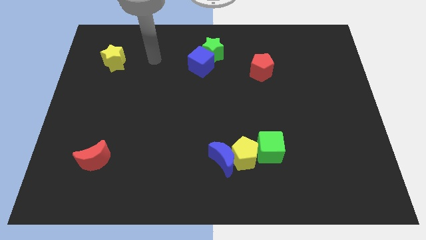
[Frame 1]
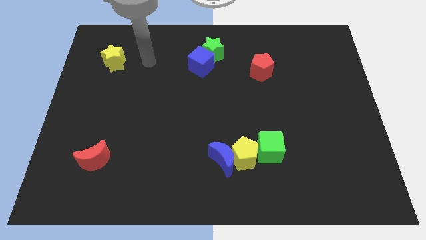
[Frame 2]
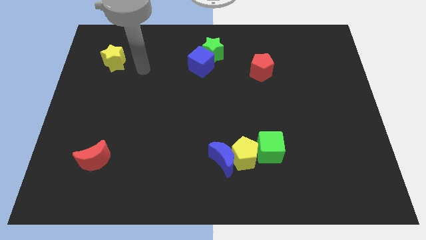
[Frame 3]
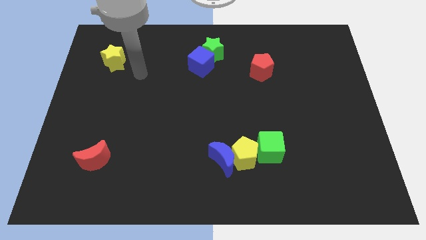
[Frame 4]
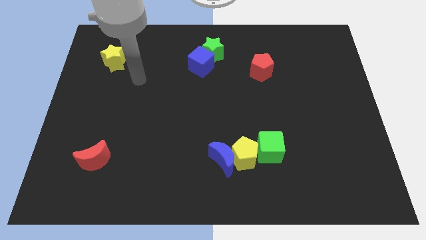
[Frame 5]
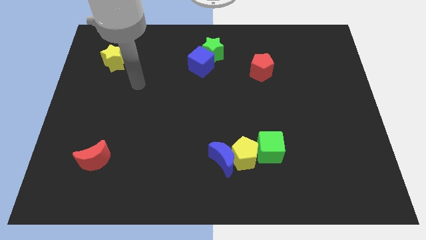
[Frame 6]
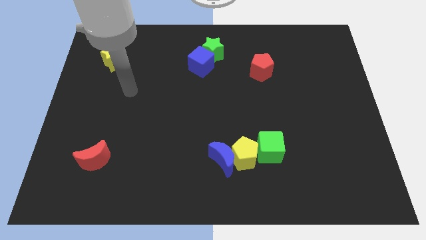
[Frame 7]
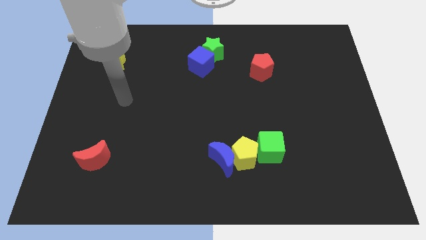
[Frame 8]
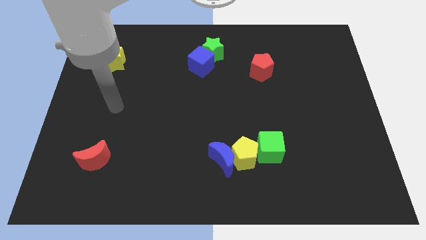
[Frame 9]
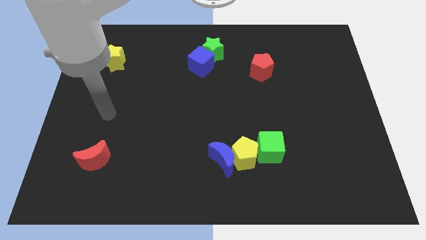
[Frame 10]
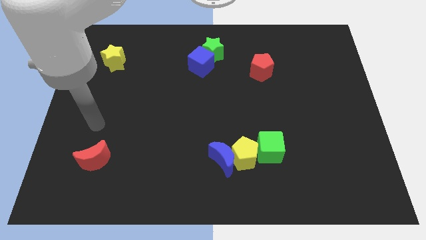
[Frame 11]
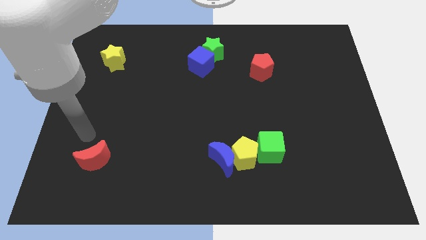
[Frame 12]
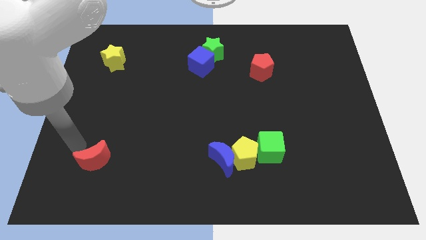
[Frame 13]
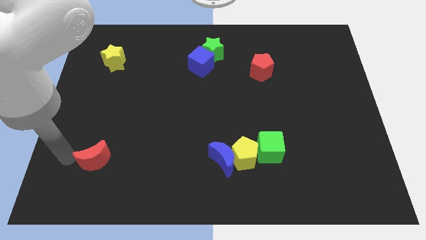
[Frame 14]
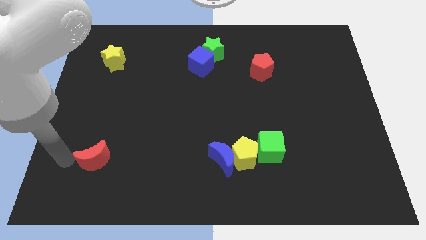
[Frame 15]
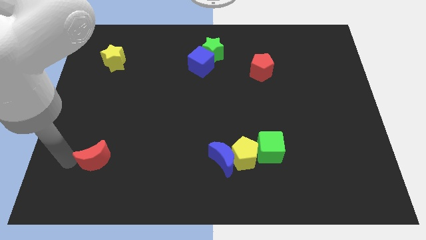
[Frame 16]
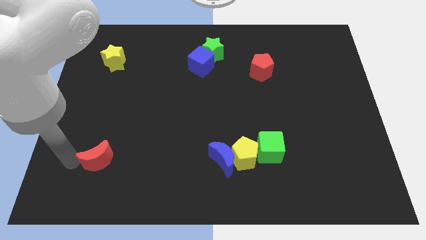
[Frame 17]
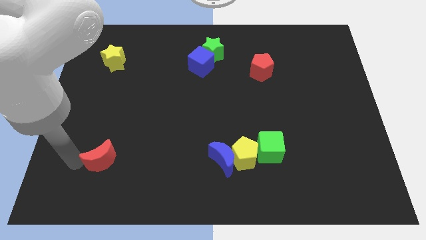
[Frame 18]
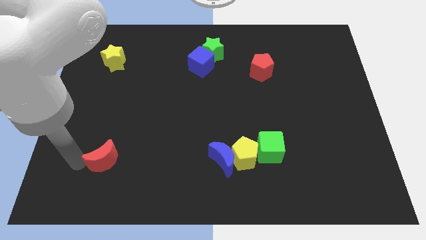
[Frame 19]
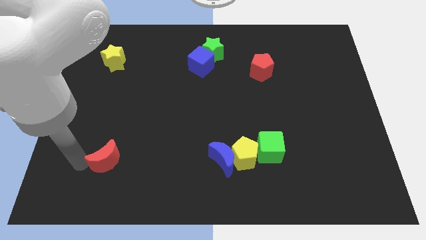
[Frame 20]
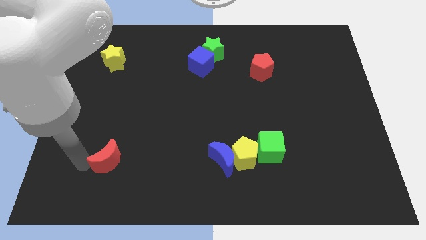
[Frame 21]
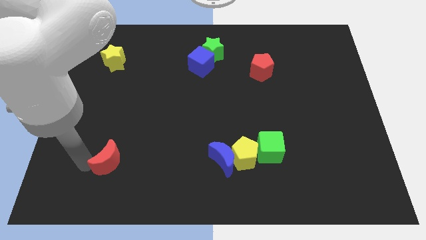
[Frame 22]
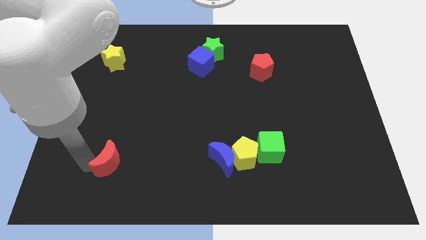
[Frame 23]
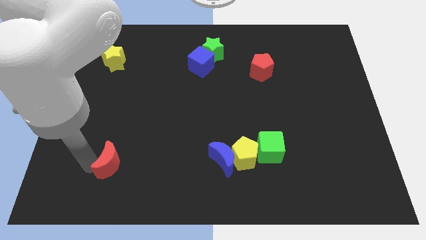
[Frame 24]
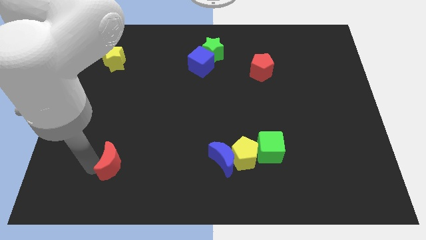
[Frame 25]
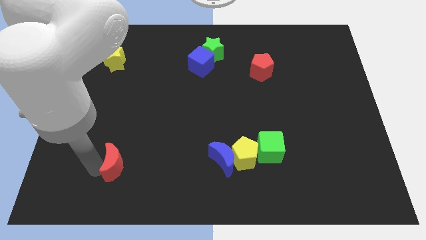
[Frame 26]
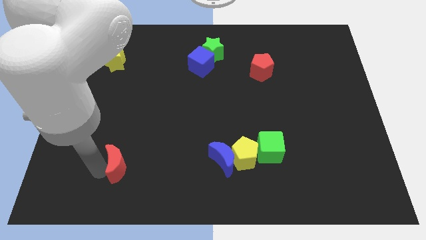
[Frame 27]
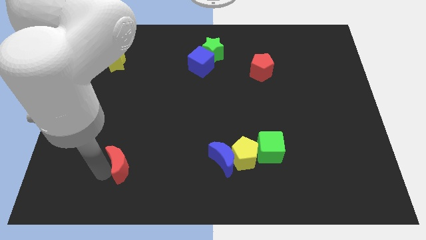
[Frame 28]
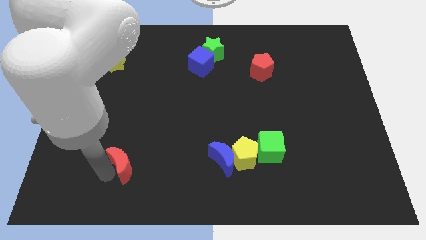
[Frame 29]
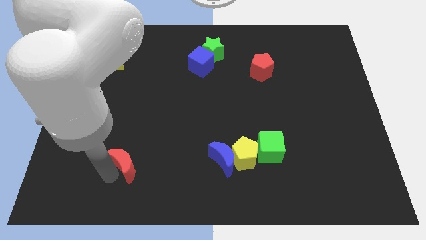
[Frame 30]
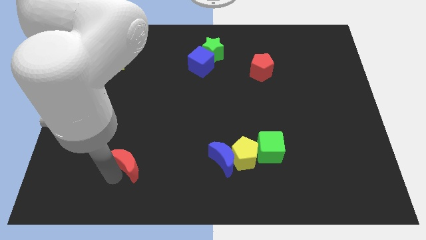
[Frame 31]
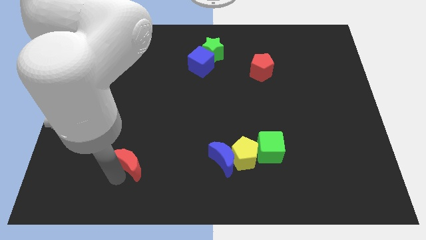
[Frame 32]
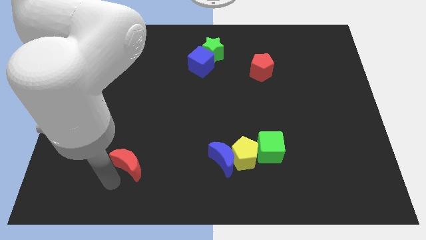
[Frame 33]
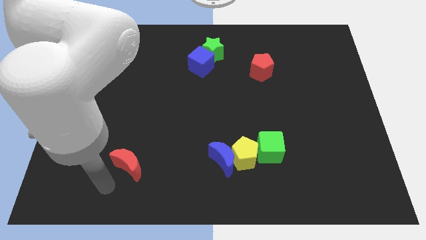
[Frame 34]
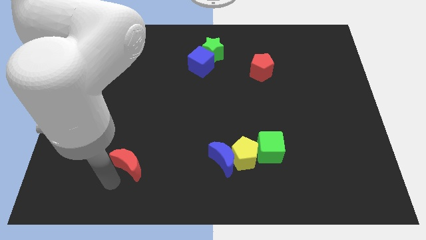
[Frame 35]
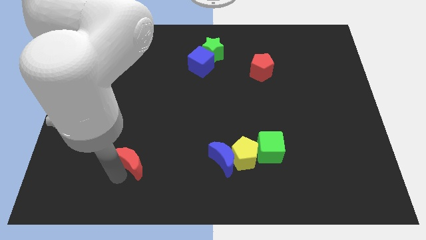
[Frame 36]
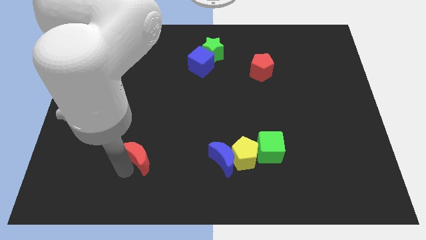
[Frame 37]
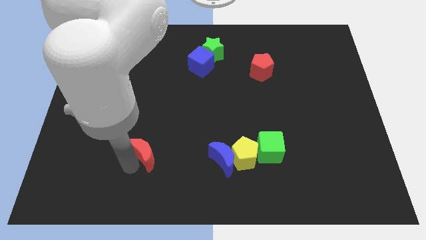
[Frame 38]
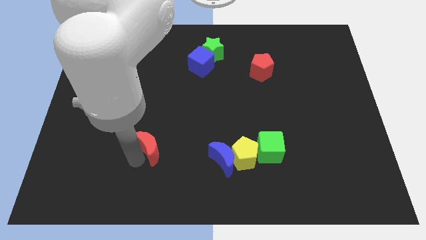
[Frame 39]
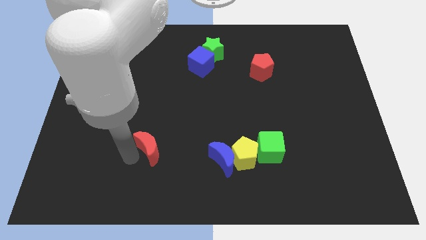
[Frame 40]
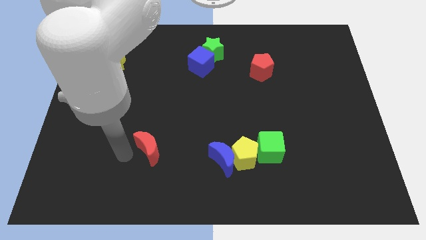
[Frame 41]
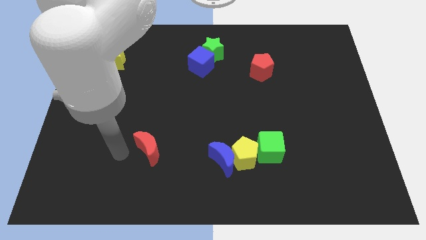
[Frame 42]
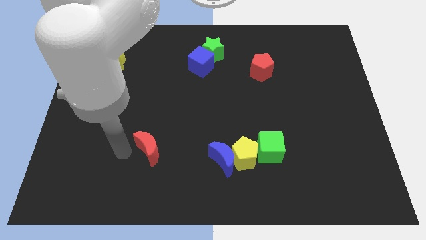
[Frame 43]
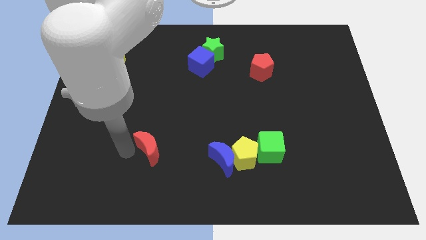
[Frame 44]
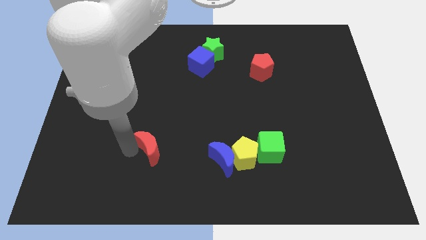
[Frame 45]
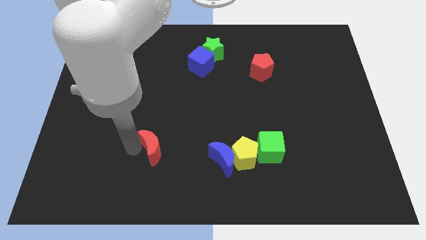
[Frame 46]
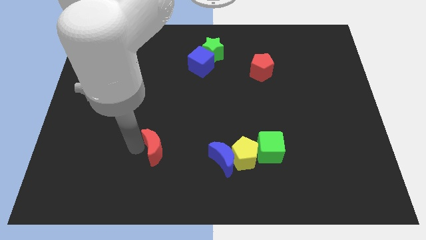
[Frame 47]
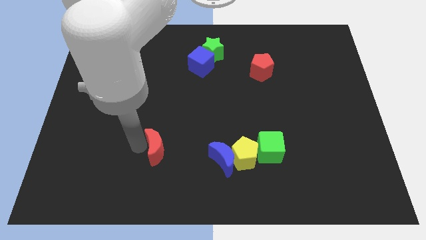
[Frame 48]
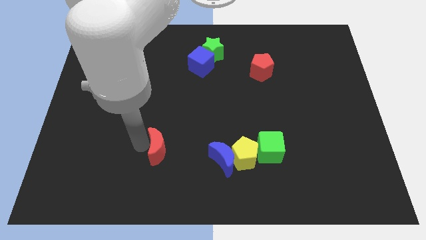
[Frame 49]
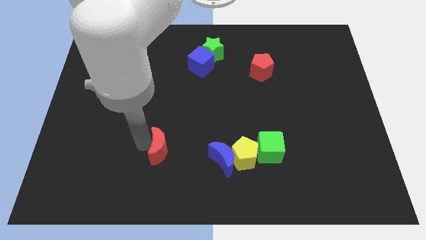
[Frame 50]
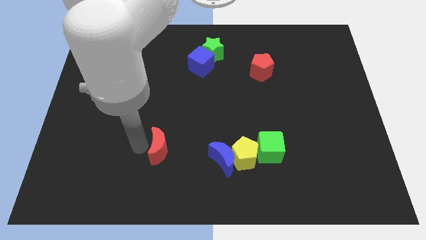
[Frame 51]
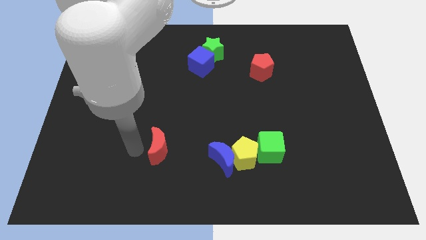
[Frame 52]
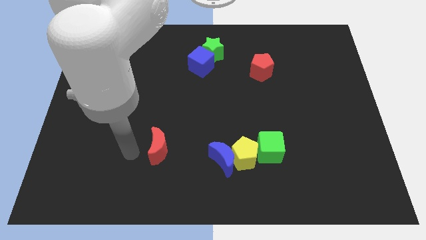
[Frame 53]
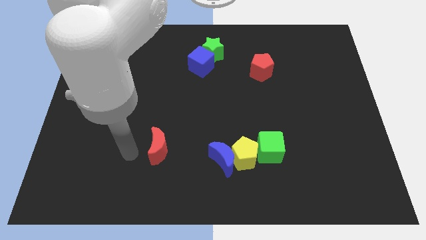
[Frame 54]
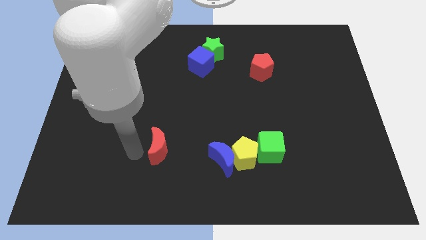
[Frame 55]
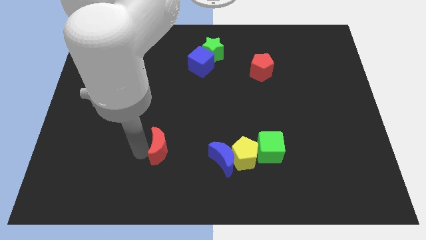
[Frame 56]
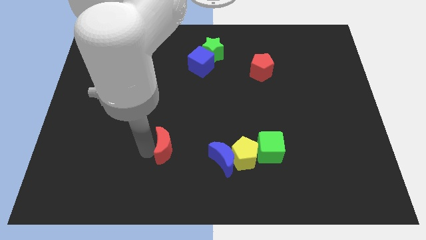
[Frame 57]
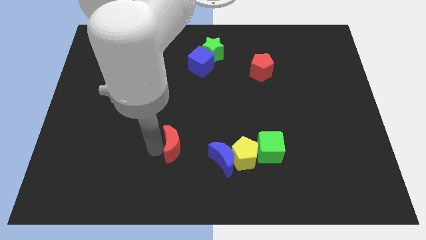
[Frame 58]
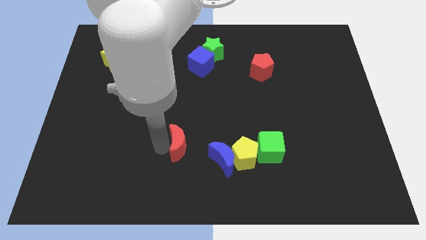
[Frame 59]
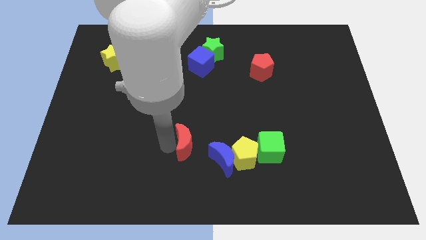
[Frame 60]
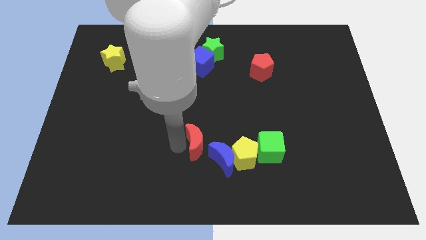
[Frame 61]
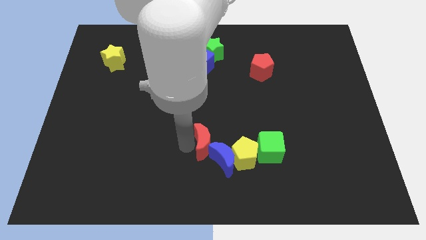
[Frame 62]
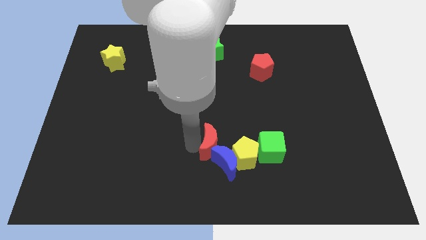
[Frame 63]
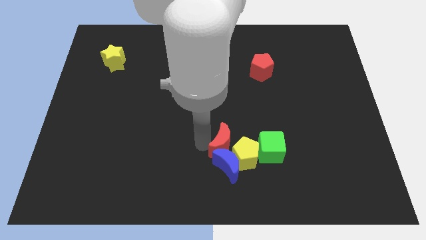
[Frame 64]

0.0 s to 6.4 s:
move the red moon next to the yellow pentagon

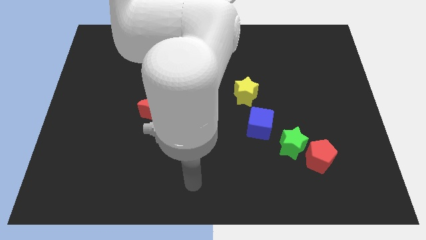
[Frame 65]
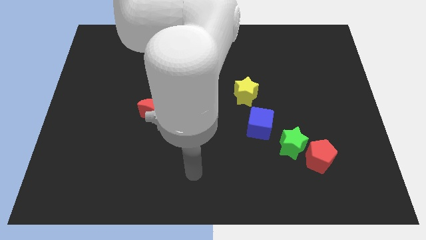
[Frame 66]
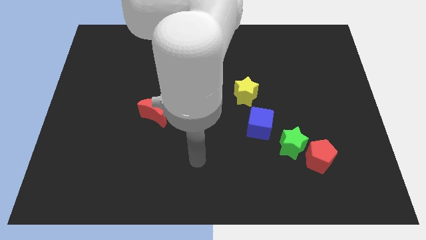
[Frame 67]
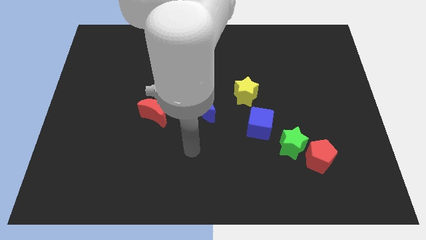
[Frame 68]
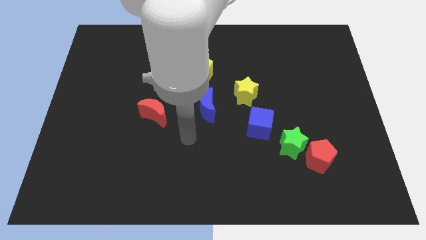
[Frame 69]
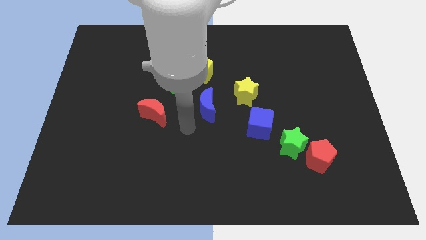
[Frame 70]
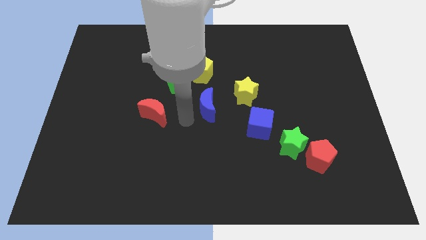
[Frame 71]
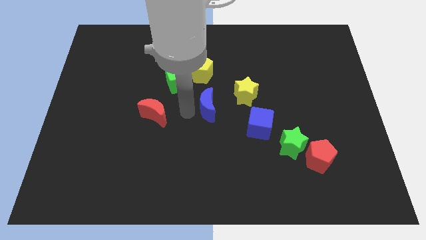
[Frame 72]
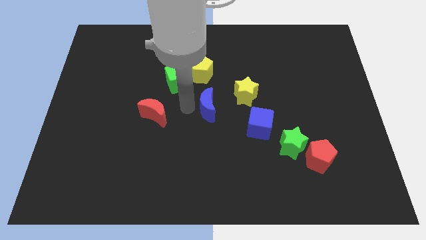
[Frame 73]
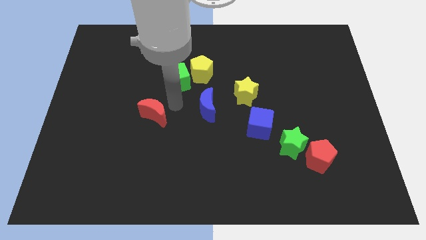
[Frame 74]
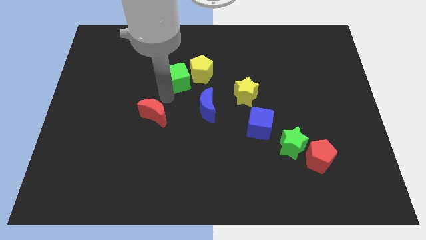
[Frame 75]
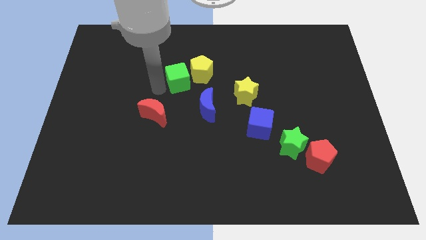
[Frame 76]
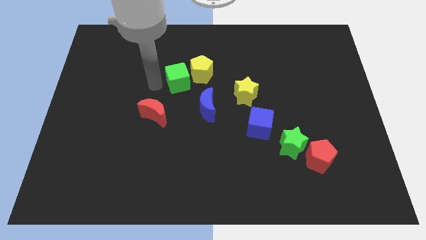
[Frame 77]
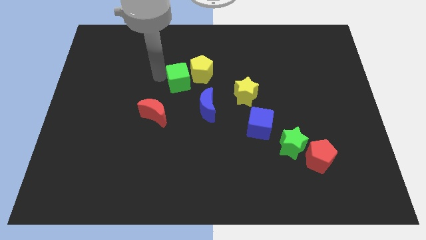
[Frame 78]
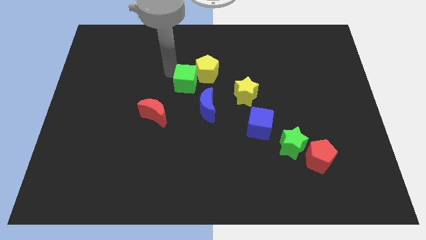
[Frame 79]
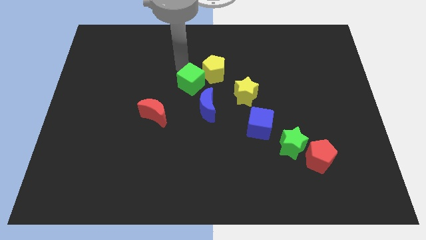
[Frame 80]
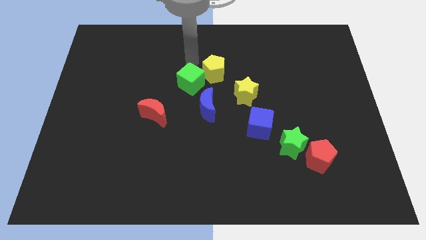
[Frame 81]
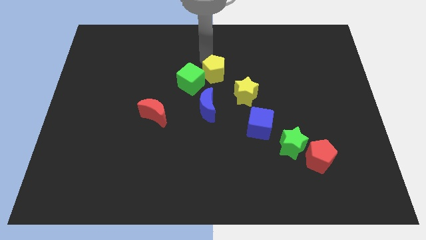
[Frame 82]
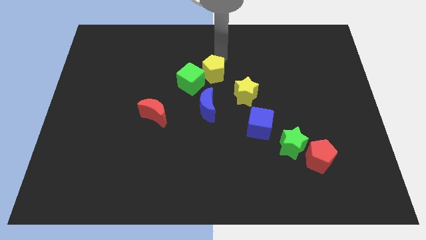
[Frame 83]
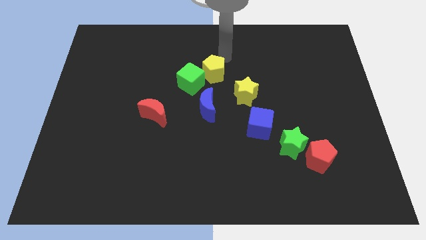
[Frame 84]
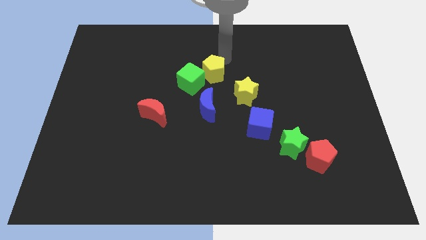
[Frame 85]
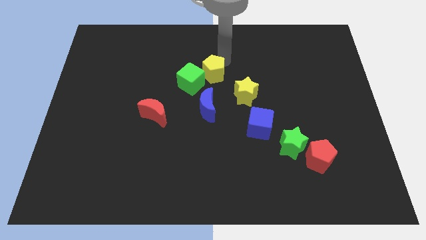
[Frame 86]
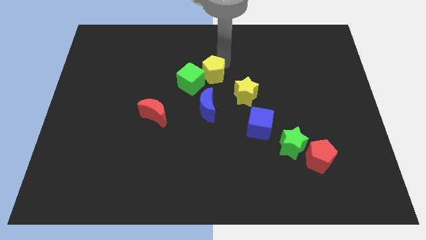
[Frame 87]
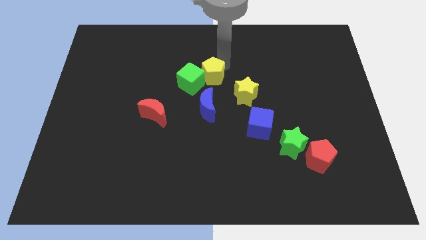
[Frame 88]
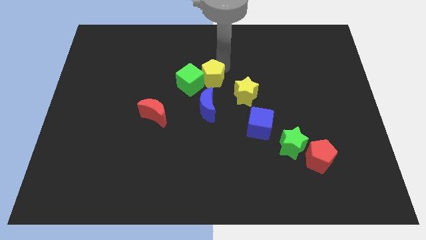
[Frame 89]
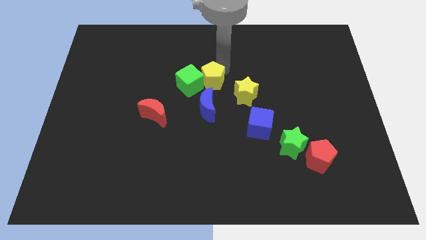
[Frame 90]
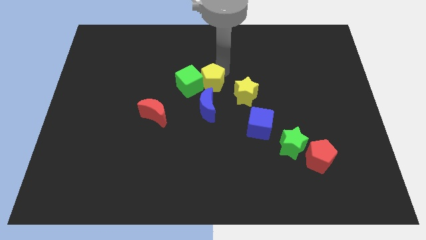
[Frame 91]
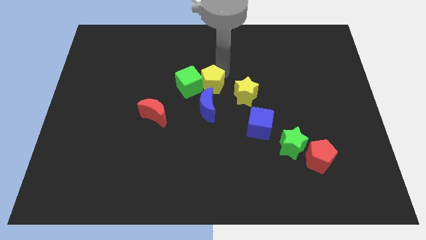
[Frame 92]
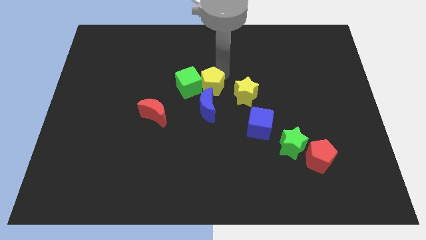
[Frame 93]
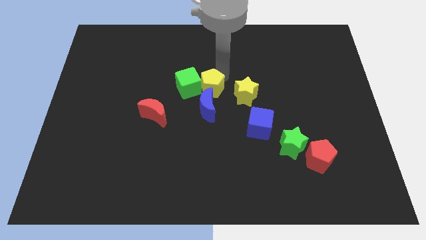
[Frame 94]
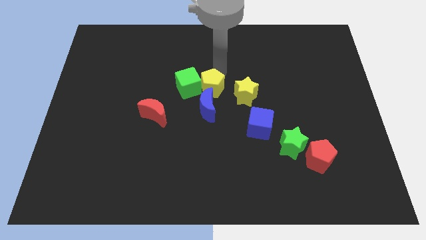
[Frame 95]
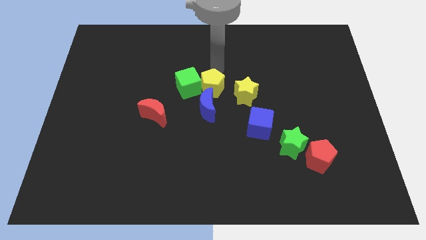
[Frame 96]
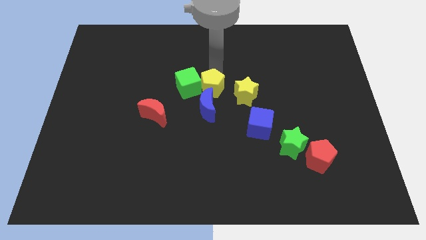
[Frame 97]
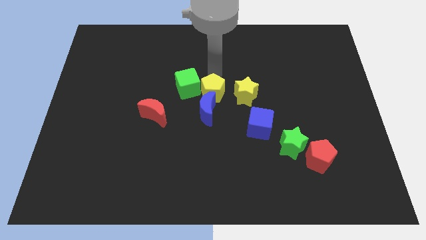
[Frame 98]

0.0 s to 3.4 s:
move the yellow pentagon towards the blue moon
